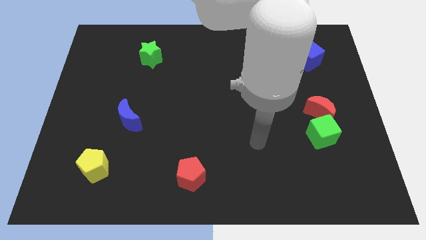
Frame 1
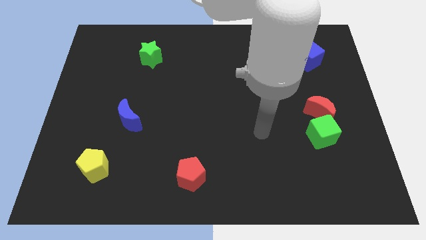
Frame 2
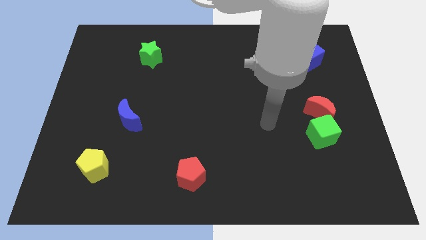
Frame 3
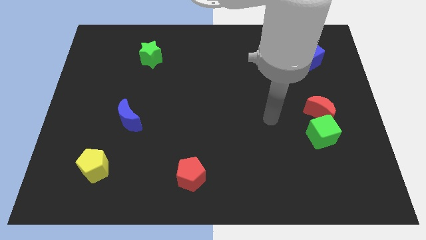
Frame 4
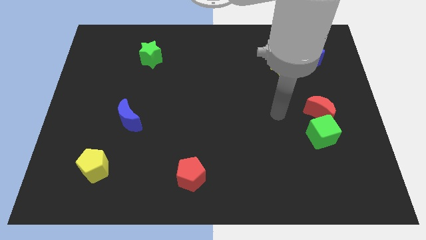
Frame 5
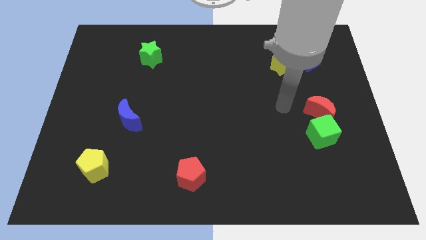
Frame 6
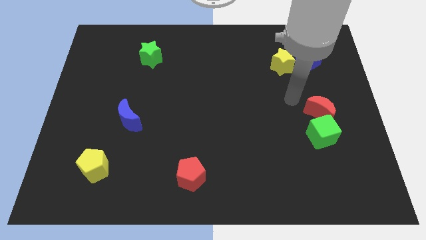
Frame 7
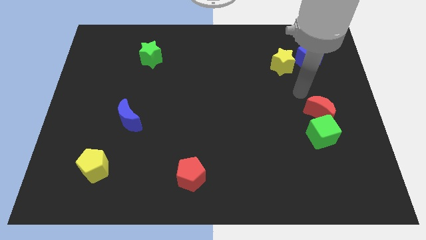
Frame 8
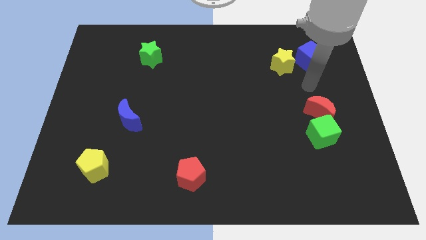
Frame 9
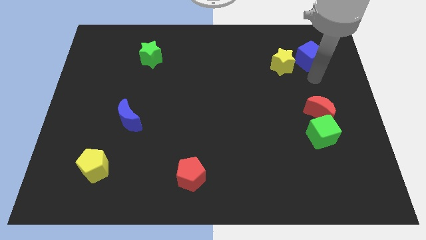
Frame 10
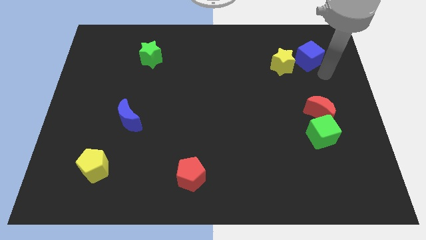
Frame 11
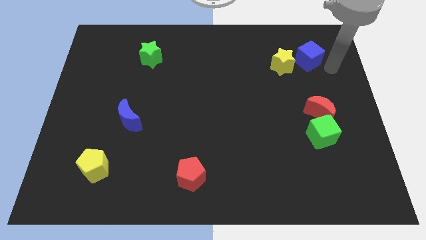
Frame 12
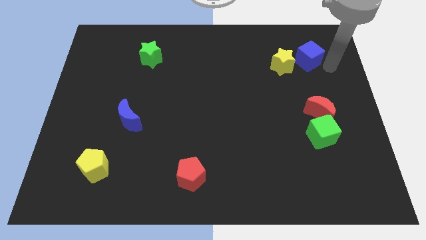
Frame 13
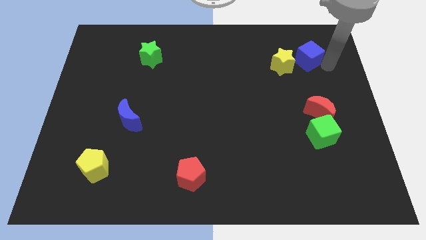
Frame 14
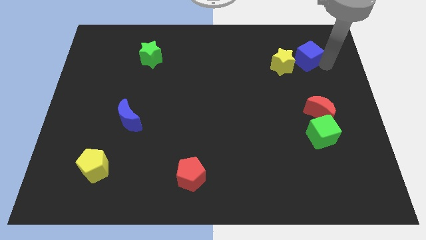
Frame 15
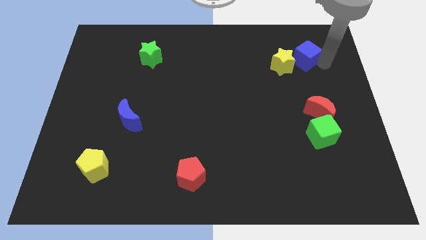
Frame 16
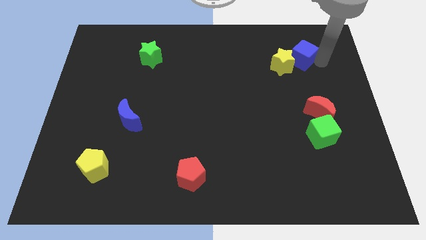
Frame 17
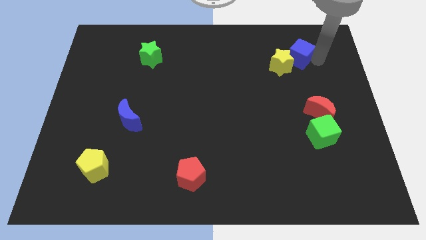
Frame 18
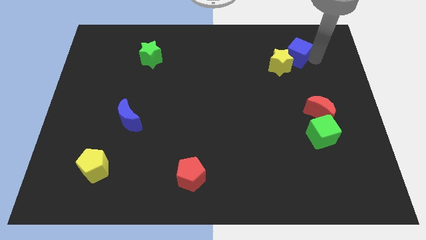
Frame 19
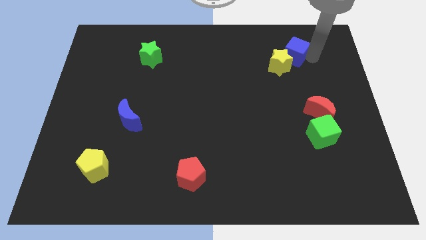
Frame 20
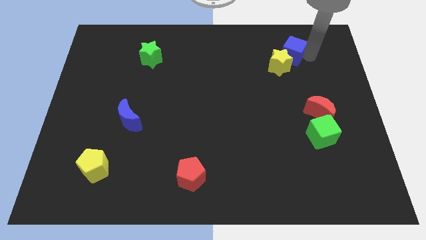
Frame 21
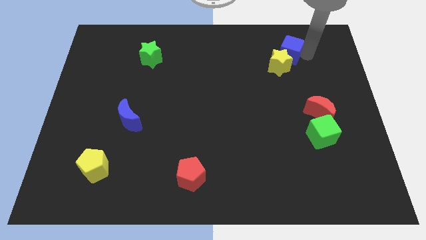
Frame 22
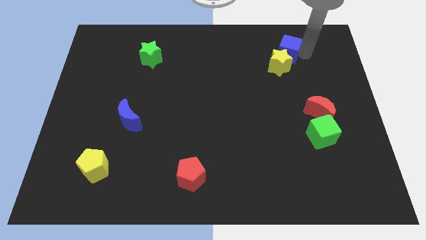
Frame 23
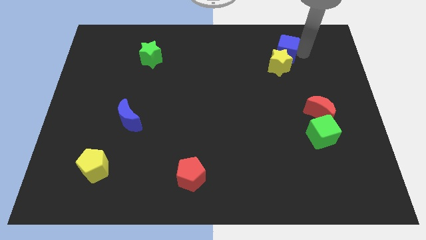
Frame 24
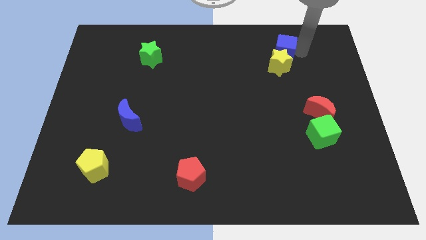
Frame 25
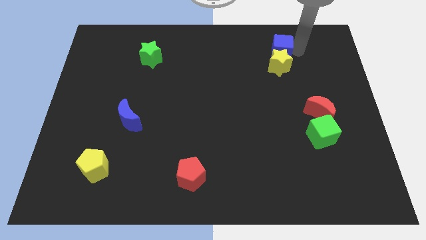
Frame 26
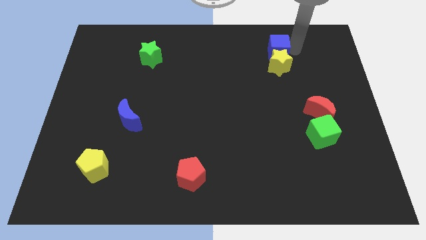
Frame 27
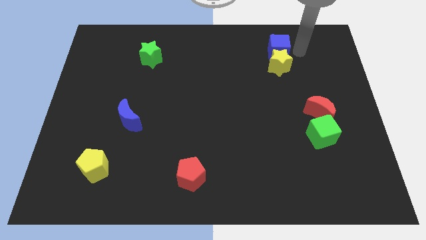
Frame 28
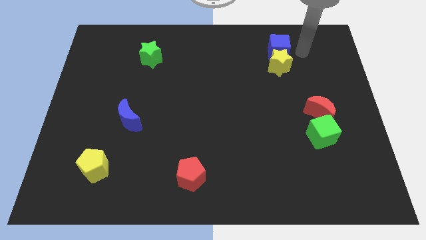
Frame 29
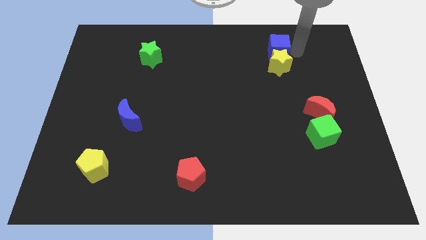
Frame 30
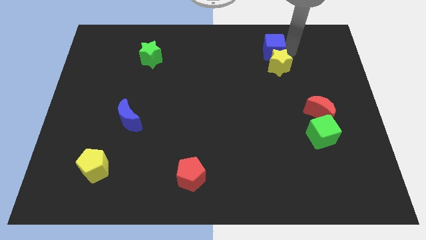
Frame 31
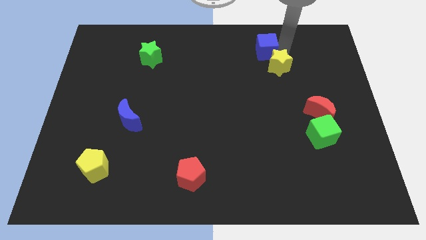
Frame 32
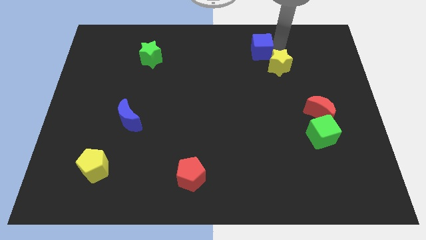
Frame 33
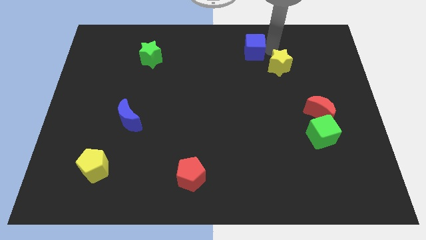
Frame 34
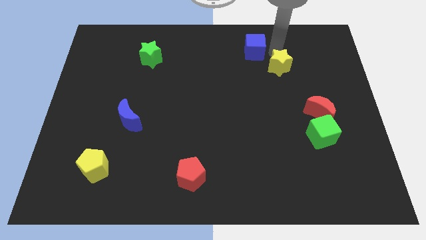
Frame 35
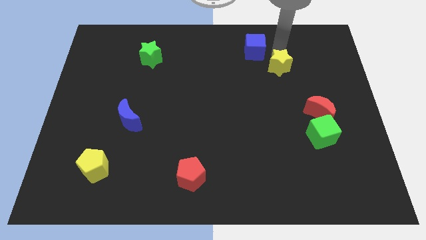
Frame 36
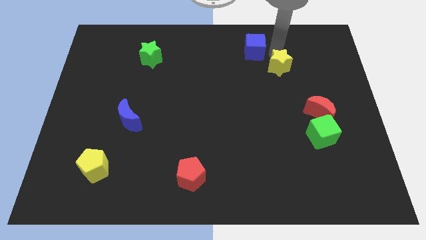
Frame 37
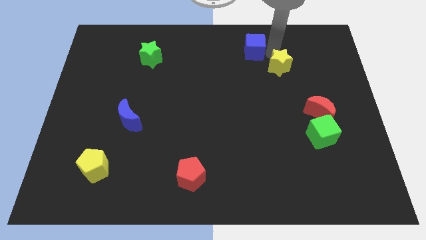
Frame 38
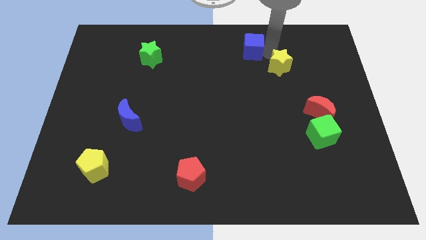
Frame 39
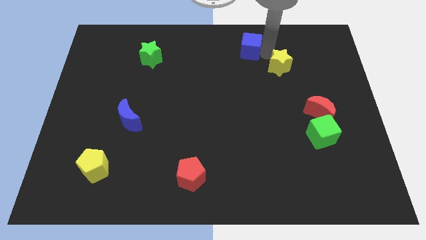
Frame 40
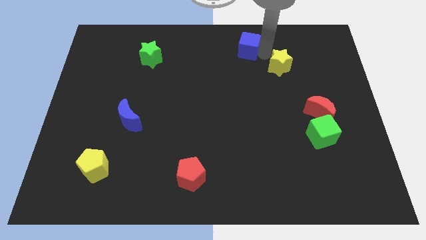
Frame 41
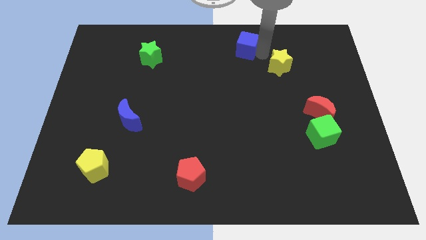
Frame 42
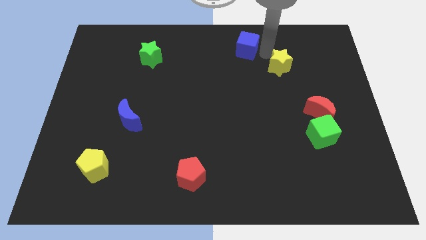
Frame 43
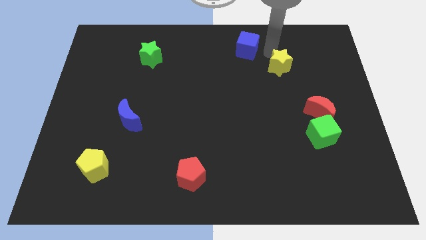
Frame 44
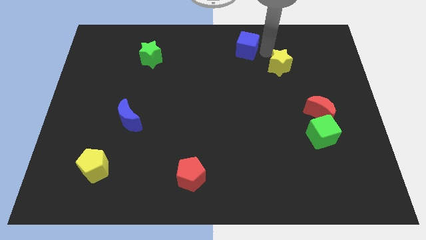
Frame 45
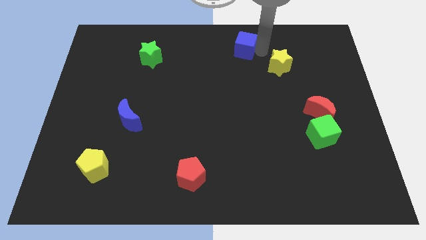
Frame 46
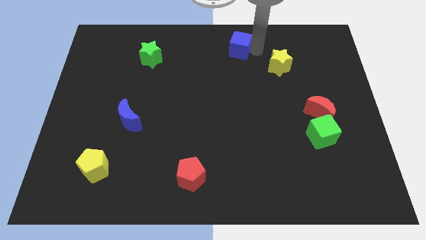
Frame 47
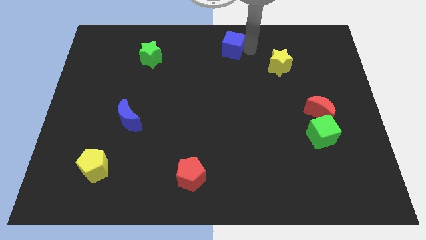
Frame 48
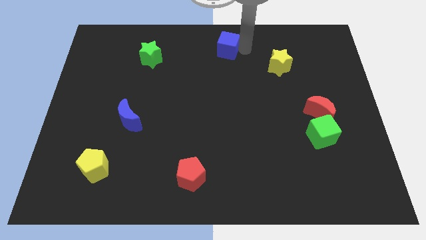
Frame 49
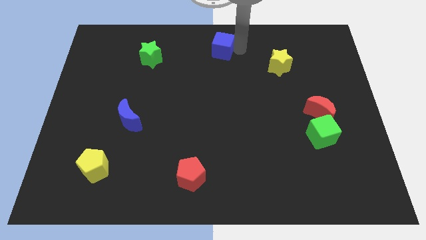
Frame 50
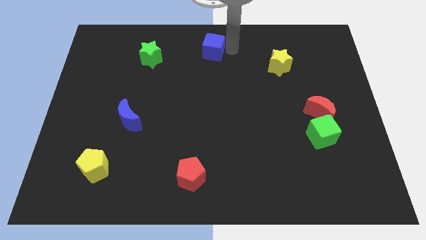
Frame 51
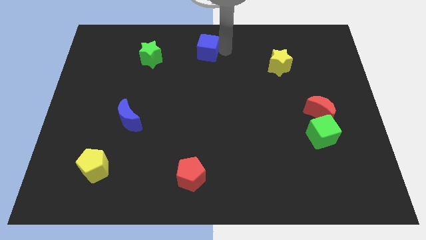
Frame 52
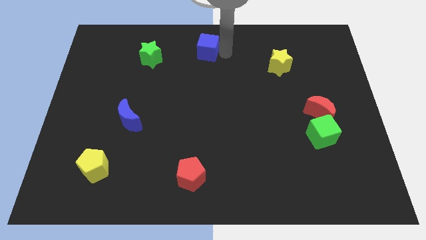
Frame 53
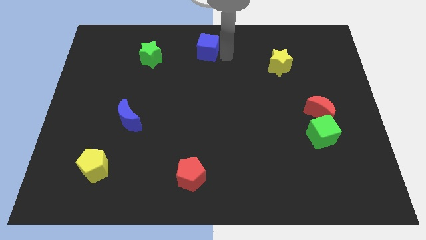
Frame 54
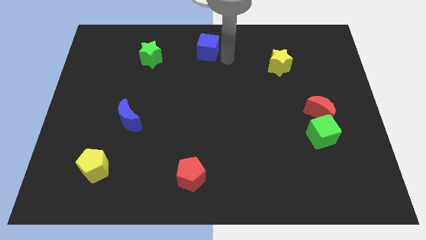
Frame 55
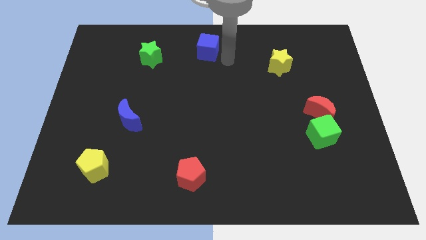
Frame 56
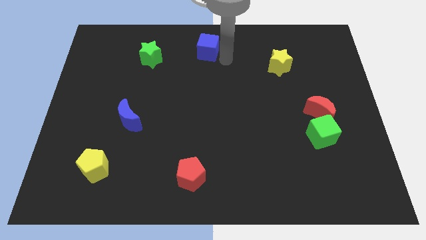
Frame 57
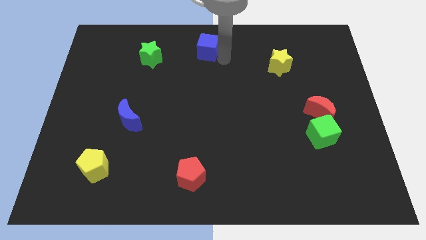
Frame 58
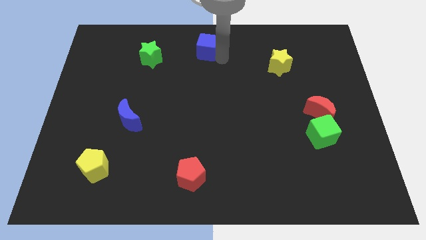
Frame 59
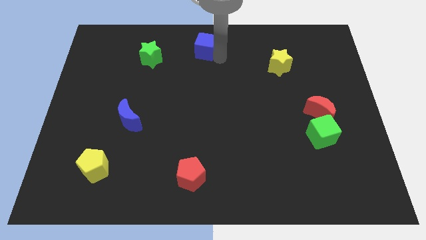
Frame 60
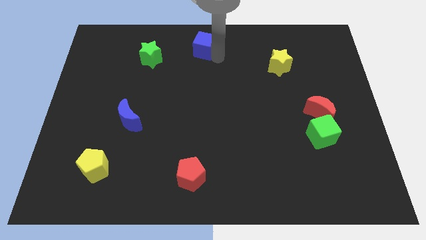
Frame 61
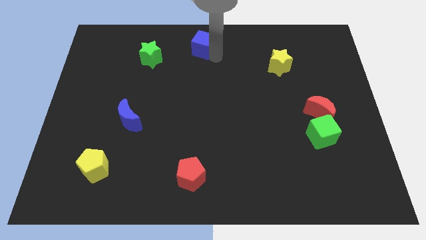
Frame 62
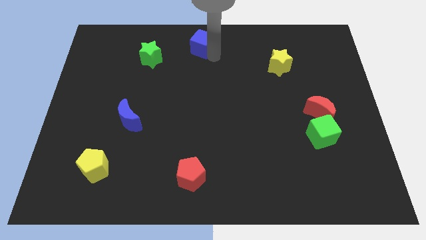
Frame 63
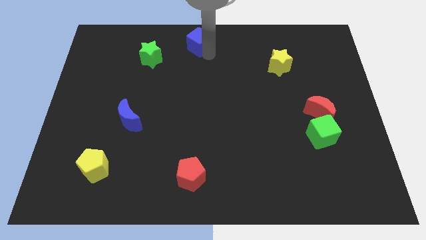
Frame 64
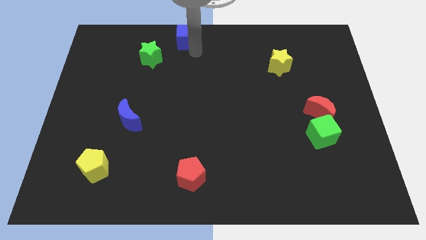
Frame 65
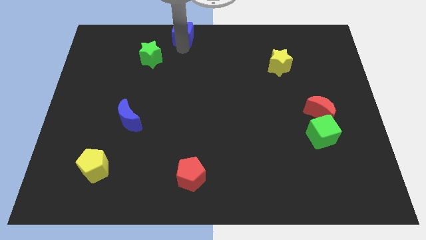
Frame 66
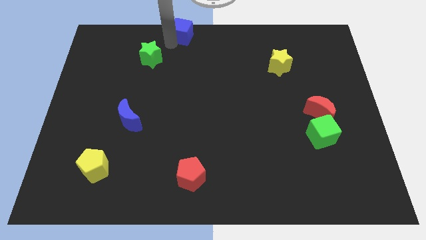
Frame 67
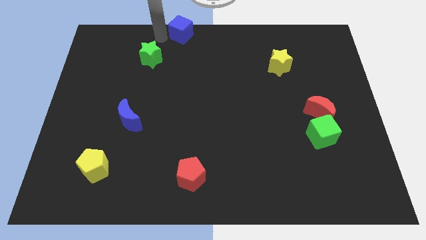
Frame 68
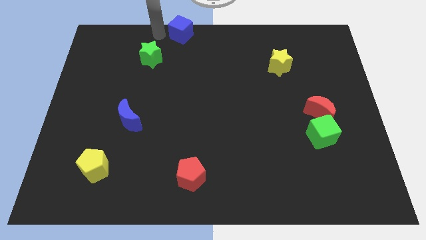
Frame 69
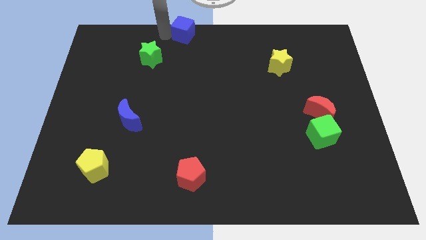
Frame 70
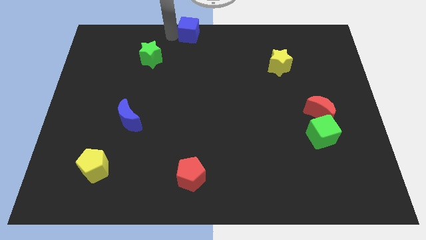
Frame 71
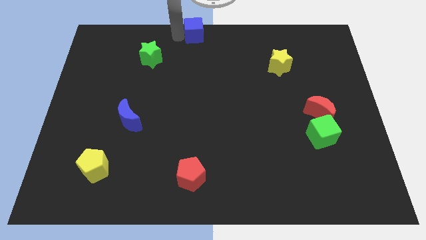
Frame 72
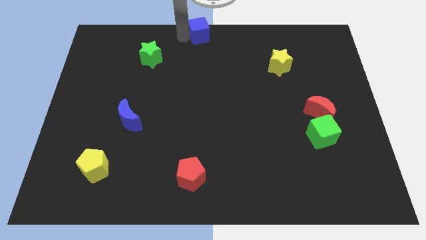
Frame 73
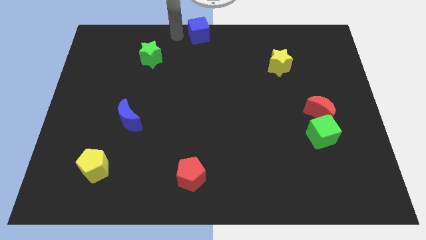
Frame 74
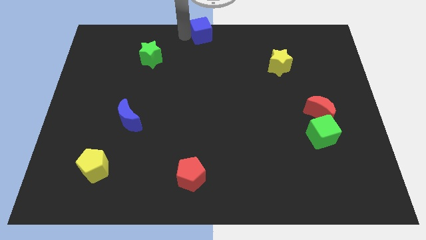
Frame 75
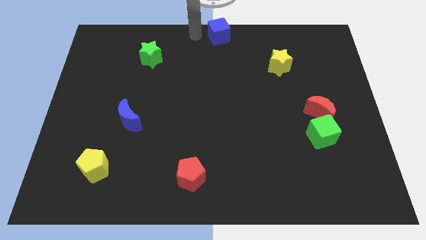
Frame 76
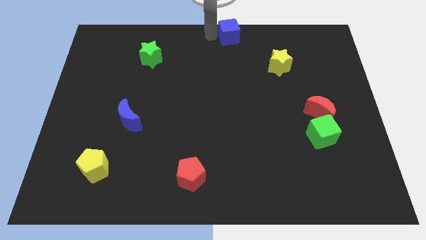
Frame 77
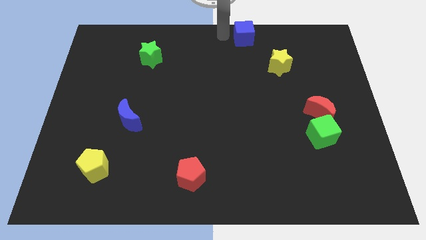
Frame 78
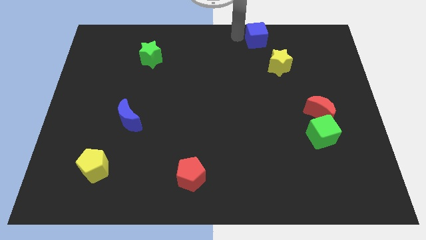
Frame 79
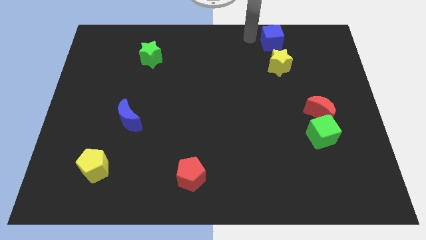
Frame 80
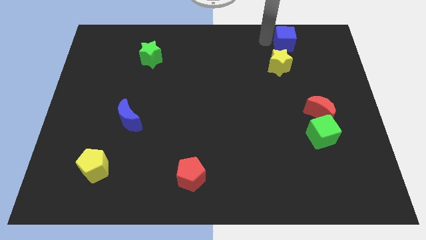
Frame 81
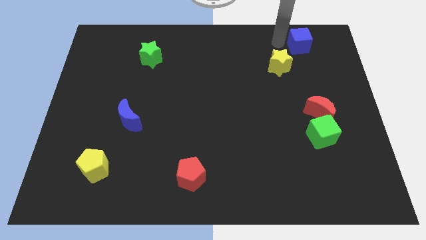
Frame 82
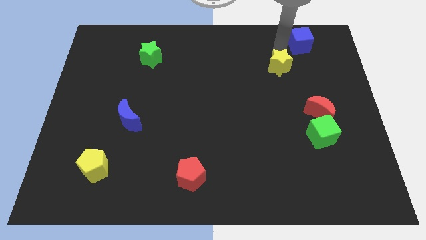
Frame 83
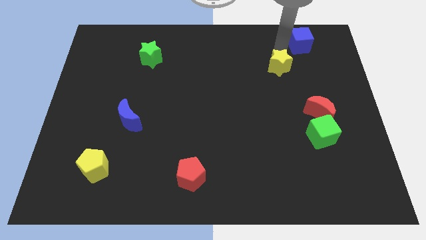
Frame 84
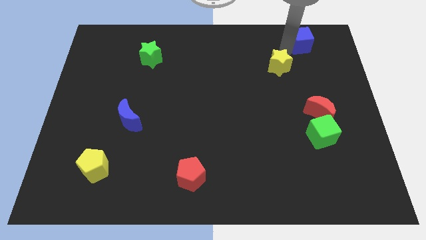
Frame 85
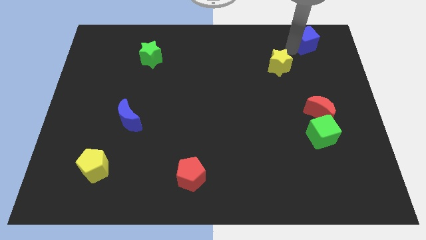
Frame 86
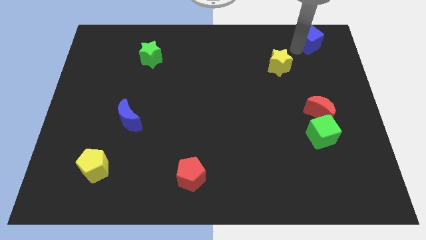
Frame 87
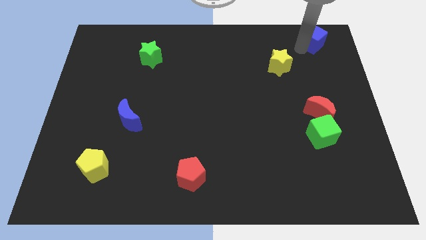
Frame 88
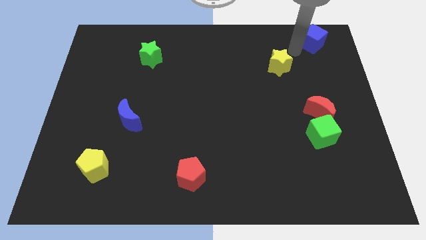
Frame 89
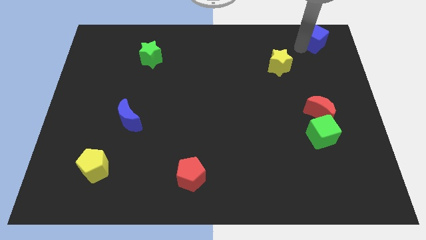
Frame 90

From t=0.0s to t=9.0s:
put the blue cube to the top right of the board
